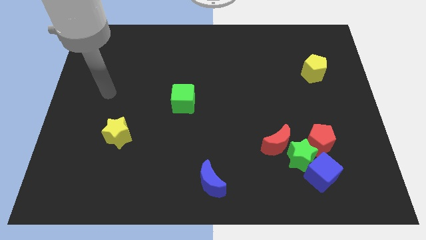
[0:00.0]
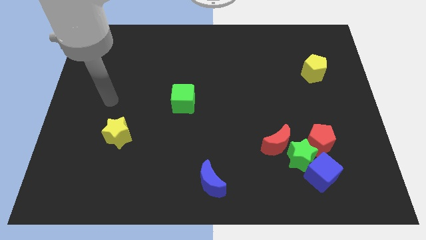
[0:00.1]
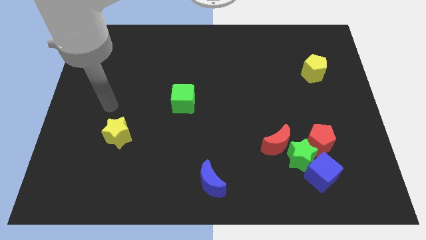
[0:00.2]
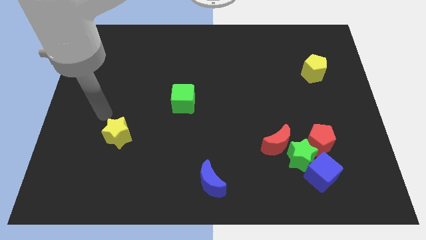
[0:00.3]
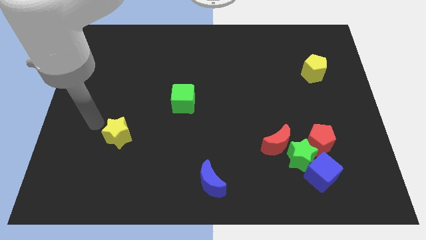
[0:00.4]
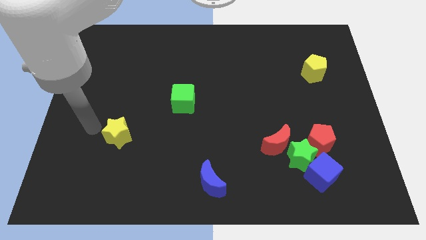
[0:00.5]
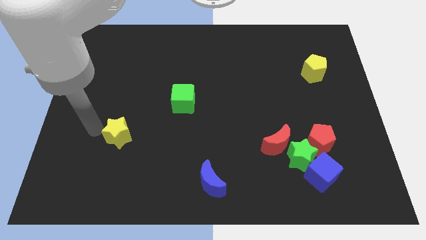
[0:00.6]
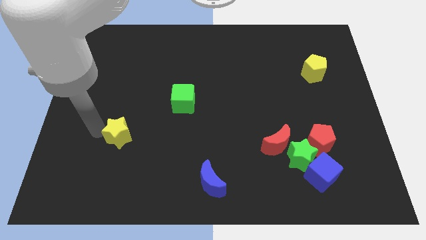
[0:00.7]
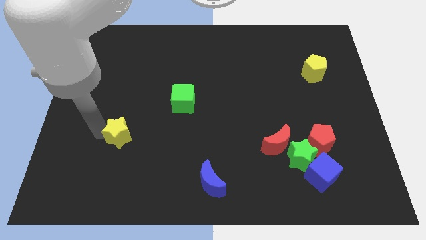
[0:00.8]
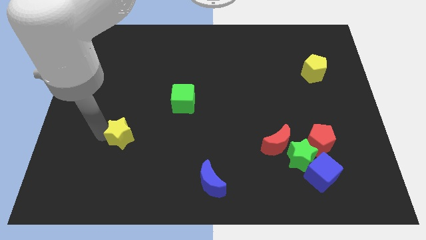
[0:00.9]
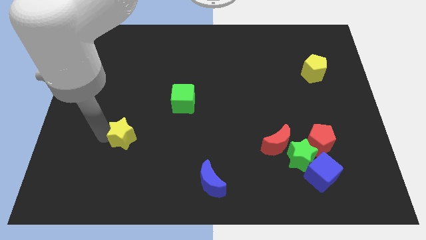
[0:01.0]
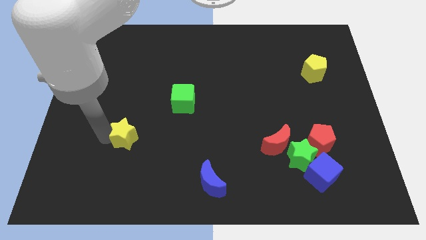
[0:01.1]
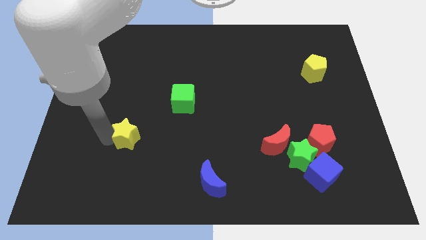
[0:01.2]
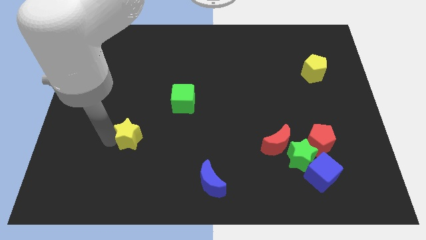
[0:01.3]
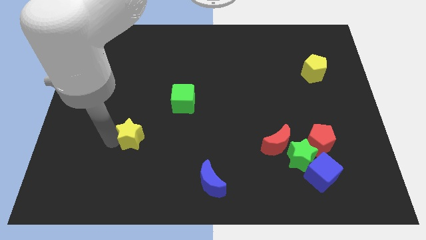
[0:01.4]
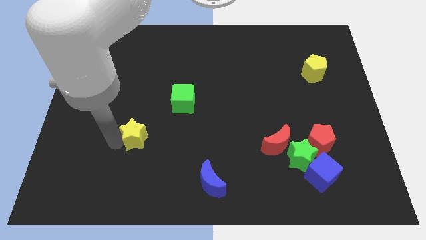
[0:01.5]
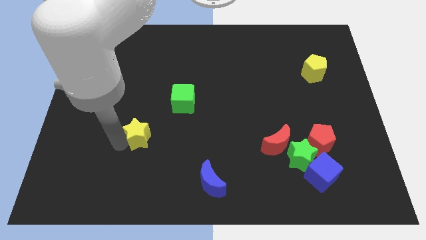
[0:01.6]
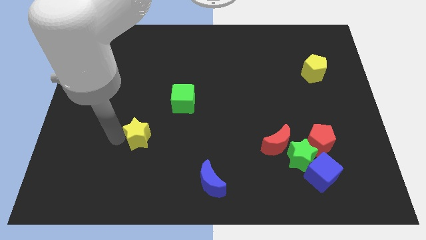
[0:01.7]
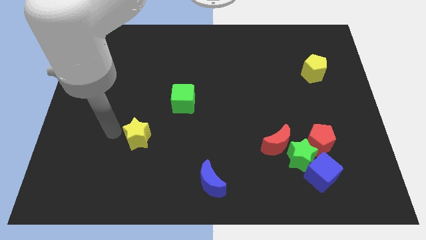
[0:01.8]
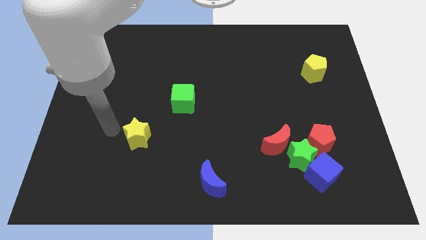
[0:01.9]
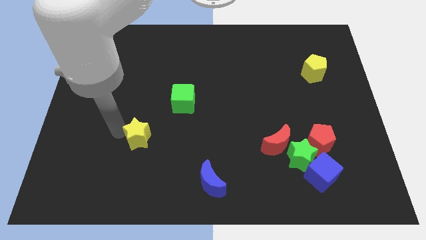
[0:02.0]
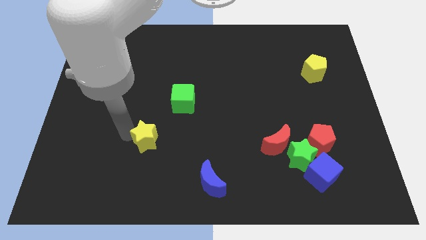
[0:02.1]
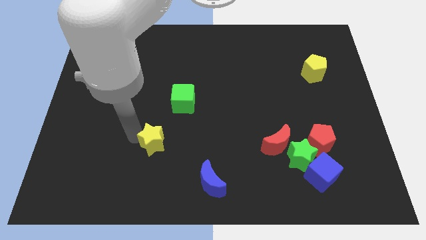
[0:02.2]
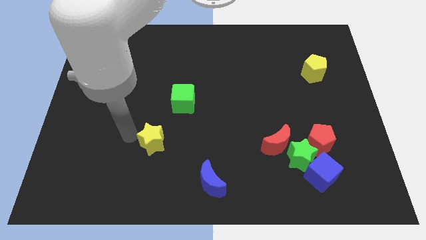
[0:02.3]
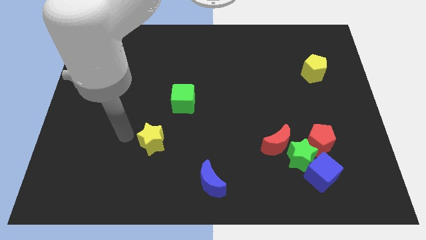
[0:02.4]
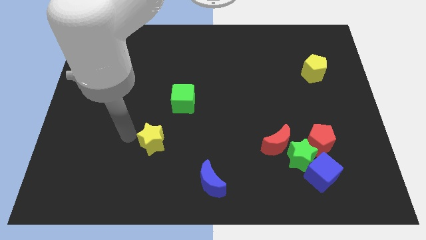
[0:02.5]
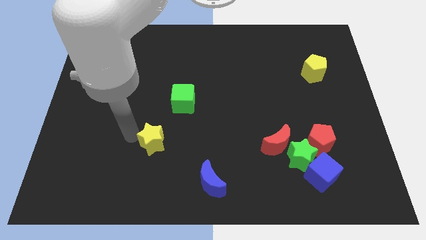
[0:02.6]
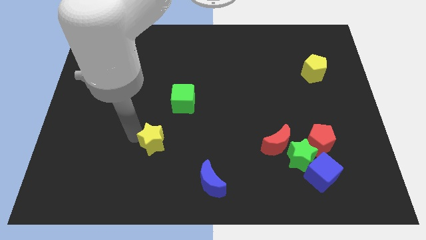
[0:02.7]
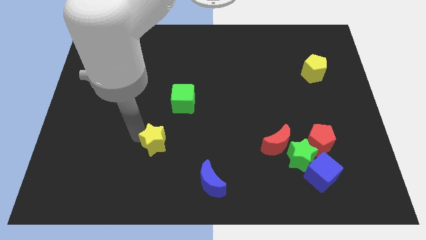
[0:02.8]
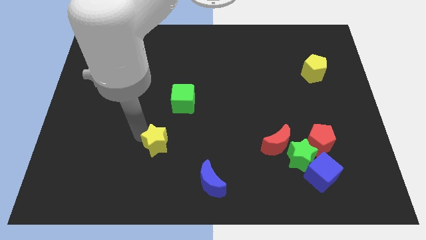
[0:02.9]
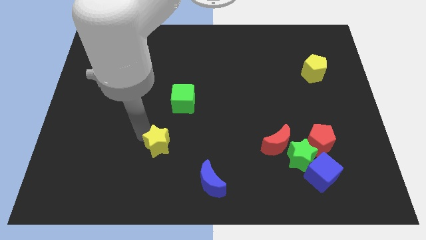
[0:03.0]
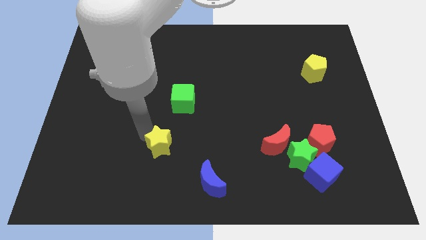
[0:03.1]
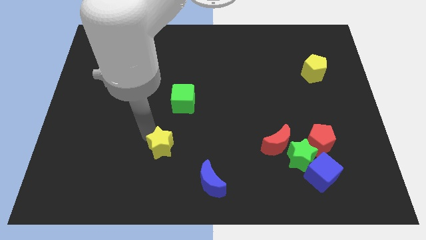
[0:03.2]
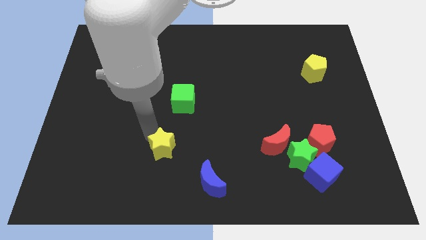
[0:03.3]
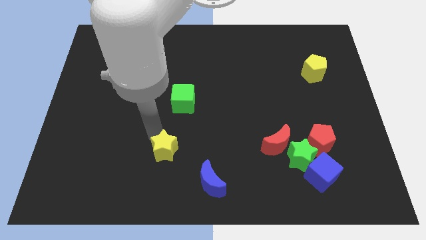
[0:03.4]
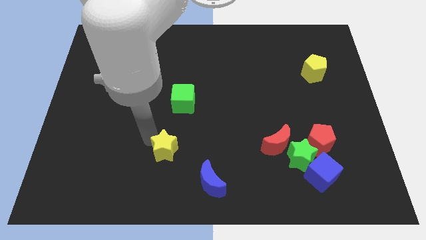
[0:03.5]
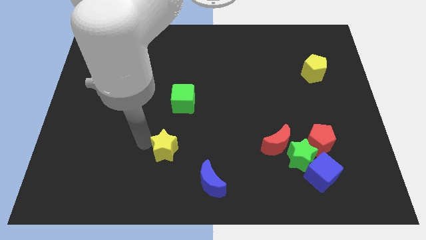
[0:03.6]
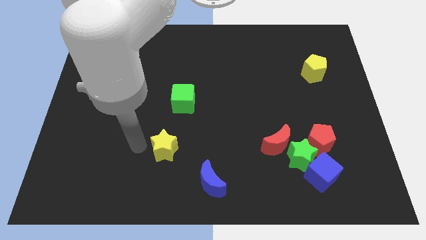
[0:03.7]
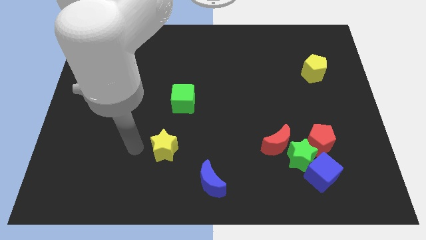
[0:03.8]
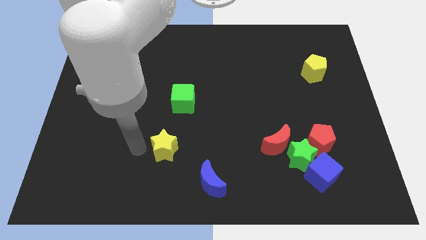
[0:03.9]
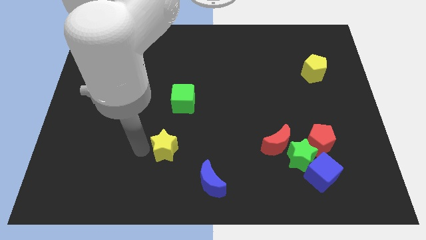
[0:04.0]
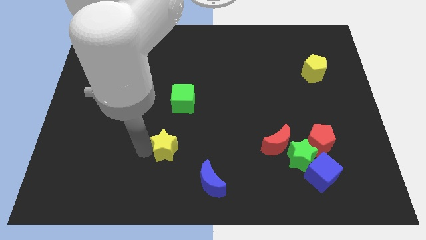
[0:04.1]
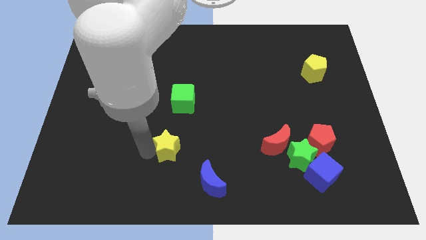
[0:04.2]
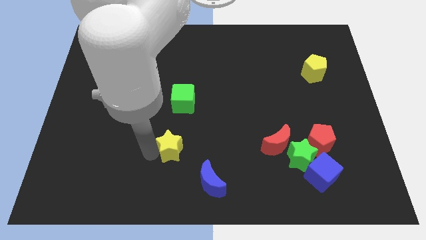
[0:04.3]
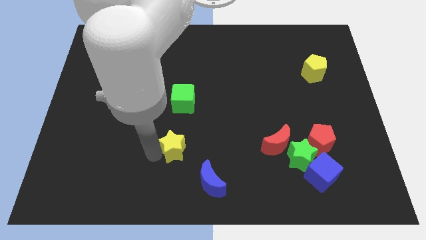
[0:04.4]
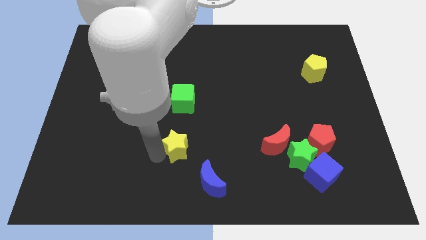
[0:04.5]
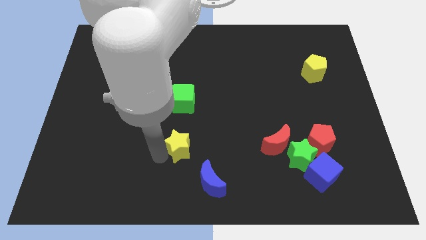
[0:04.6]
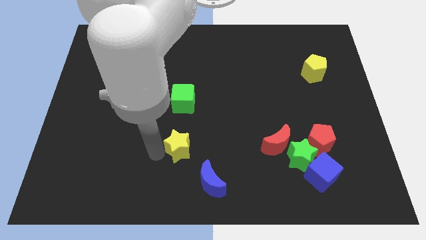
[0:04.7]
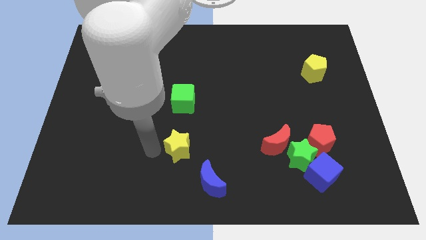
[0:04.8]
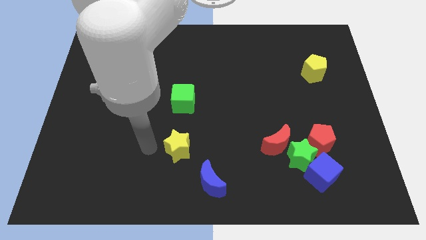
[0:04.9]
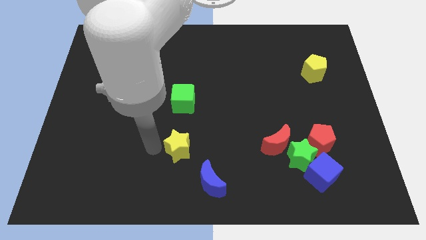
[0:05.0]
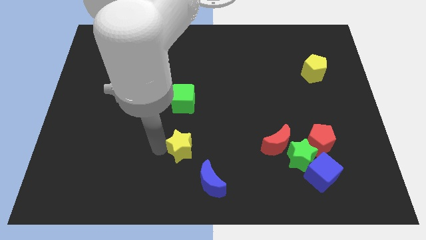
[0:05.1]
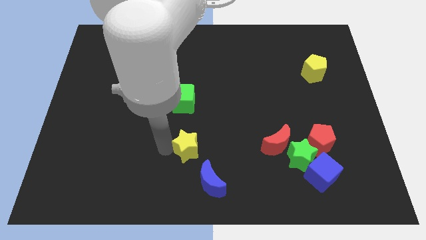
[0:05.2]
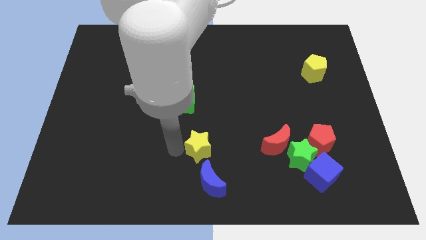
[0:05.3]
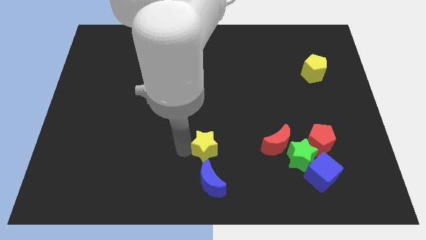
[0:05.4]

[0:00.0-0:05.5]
push the yellow star left of the red moon

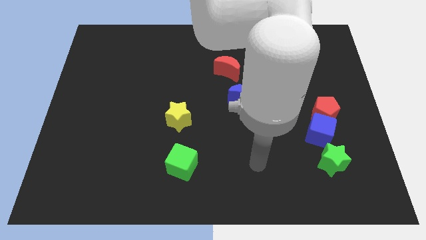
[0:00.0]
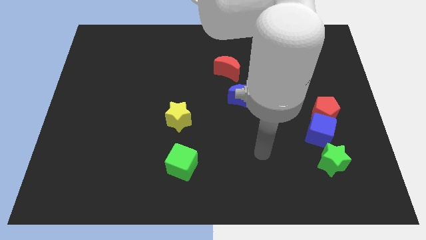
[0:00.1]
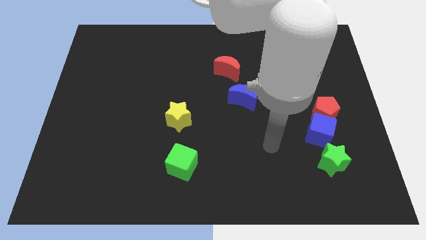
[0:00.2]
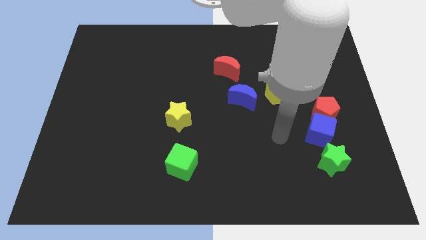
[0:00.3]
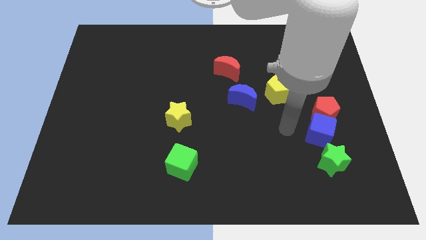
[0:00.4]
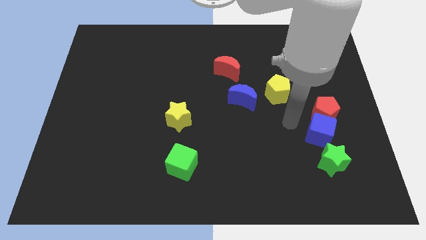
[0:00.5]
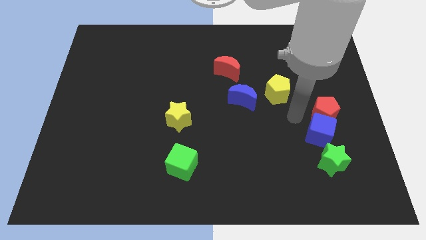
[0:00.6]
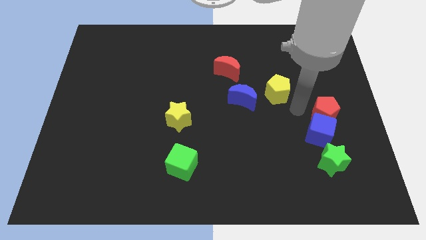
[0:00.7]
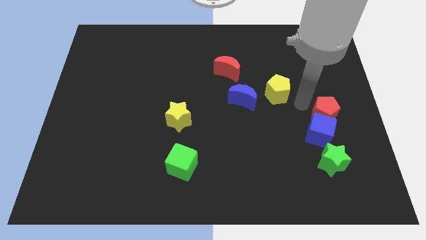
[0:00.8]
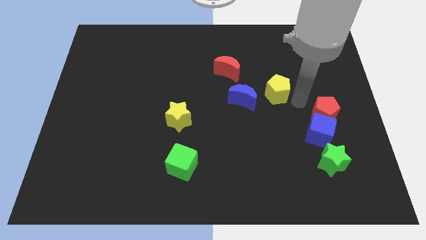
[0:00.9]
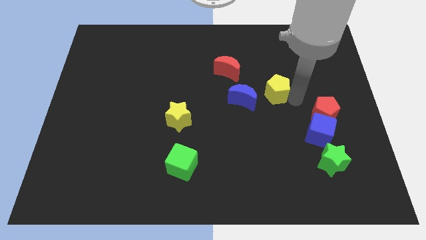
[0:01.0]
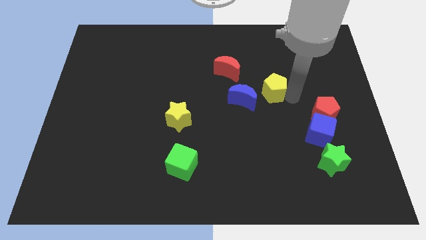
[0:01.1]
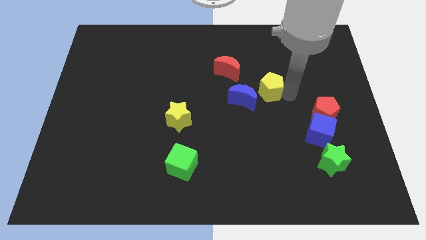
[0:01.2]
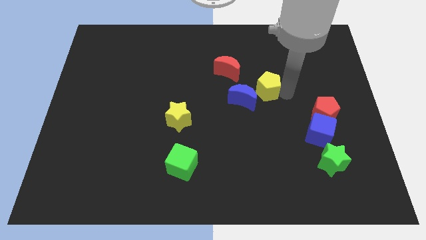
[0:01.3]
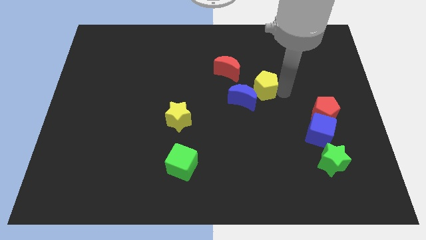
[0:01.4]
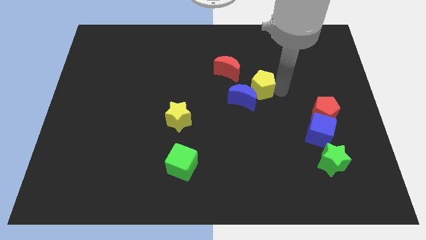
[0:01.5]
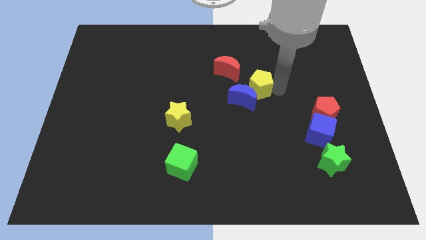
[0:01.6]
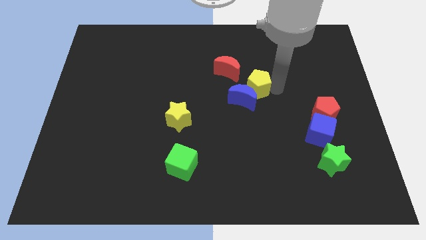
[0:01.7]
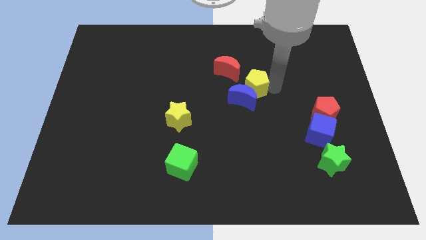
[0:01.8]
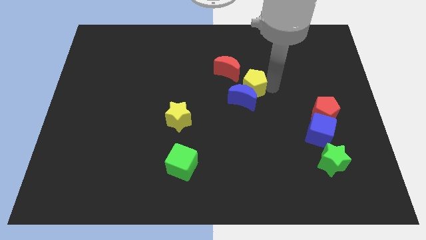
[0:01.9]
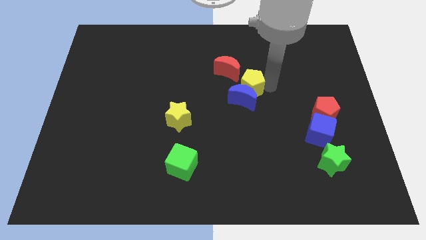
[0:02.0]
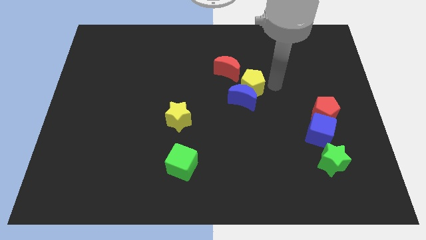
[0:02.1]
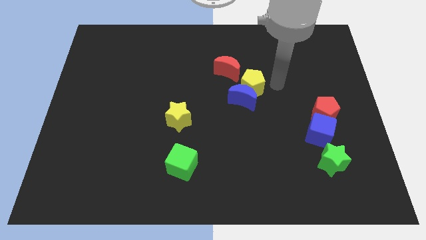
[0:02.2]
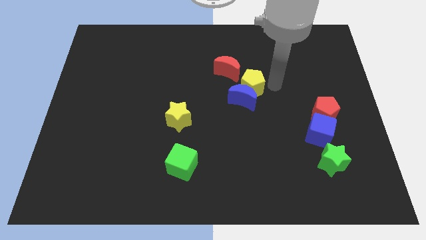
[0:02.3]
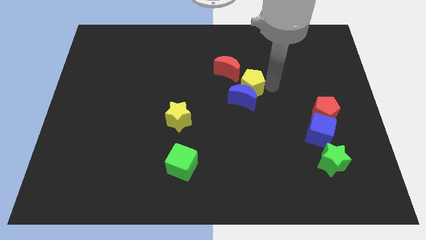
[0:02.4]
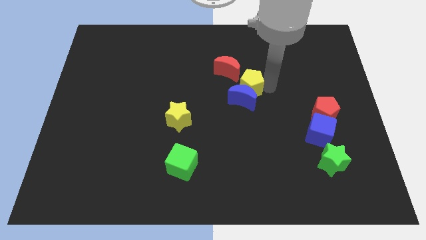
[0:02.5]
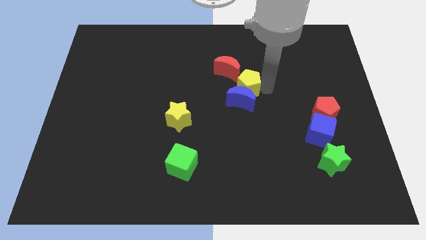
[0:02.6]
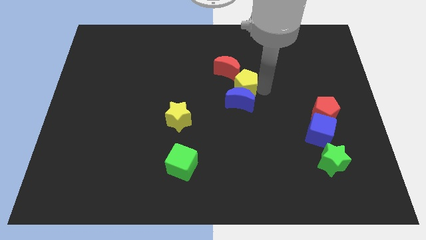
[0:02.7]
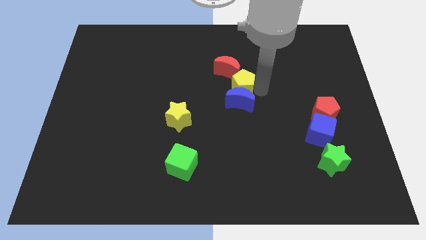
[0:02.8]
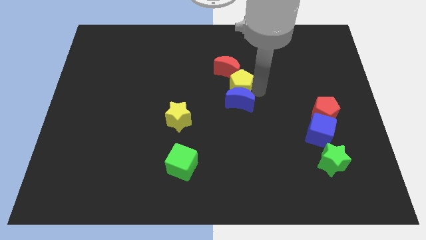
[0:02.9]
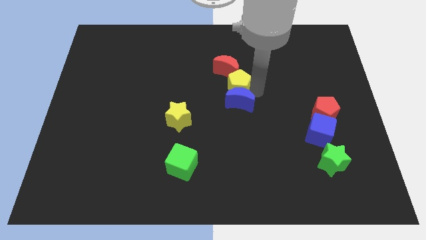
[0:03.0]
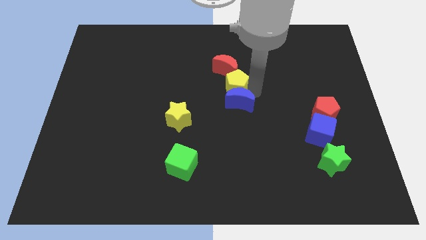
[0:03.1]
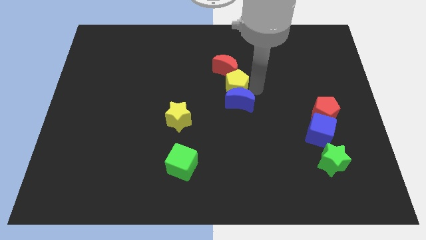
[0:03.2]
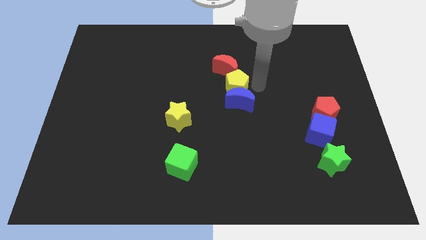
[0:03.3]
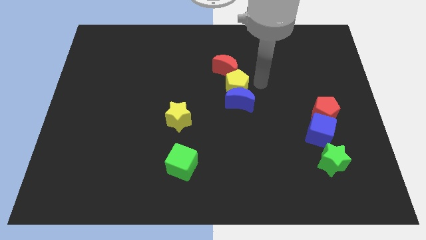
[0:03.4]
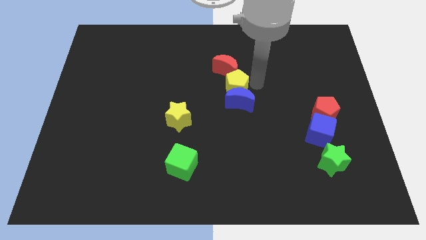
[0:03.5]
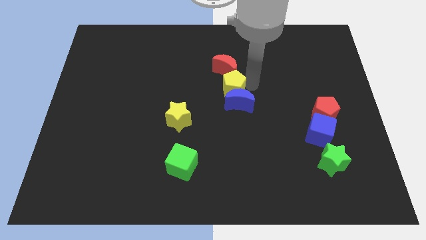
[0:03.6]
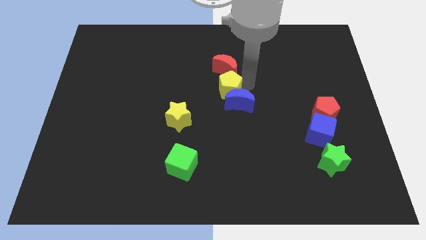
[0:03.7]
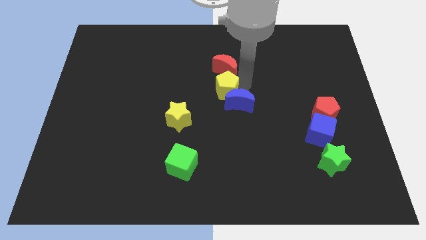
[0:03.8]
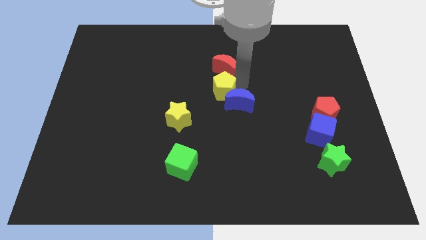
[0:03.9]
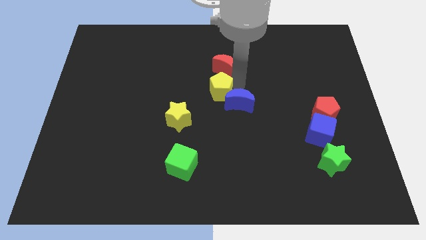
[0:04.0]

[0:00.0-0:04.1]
push the yellow pentagon to the top right of the yellow star
